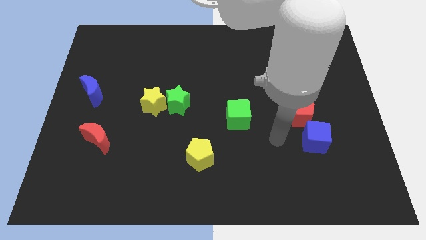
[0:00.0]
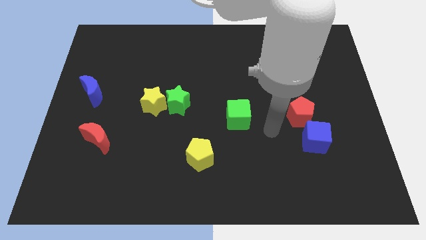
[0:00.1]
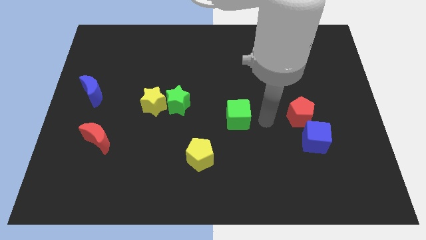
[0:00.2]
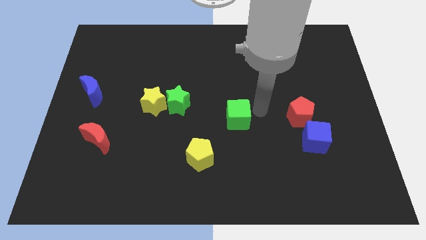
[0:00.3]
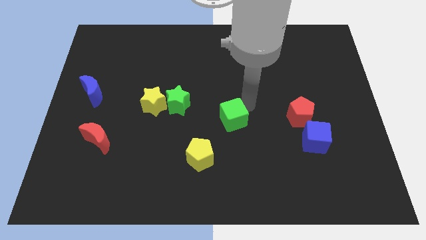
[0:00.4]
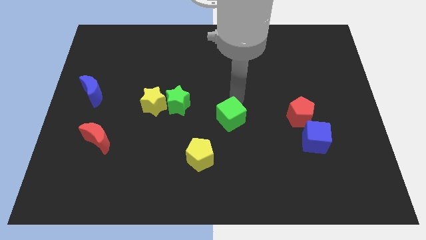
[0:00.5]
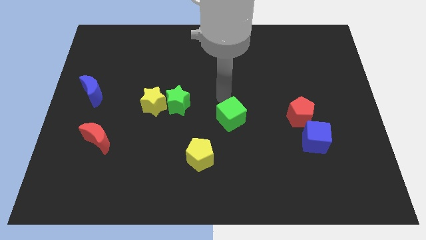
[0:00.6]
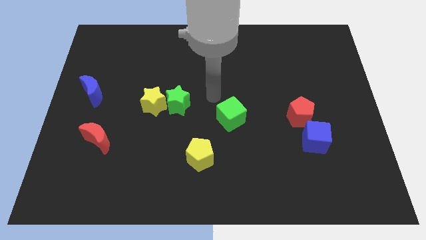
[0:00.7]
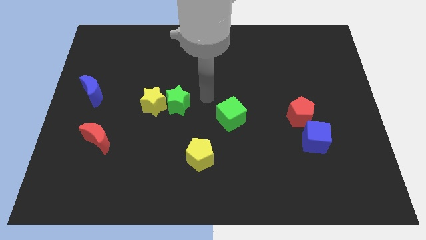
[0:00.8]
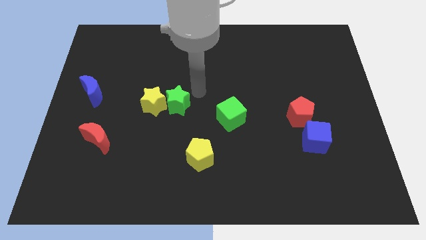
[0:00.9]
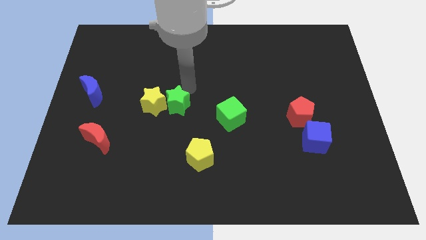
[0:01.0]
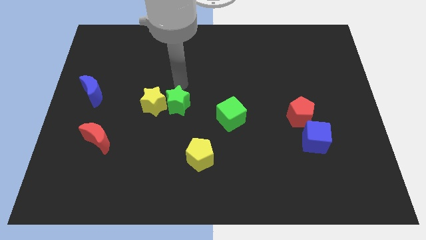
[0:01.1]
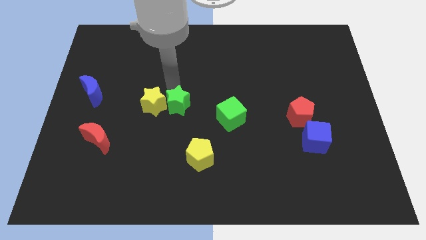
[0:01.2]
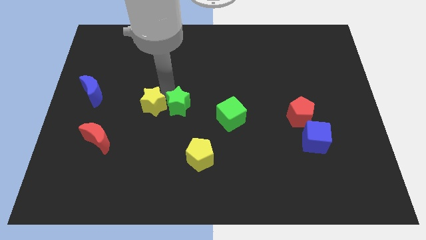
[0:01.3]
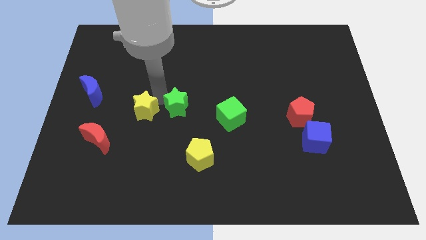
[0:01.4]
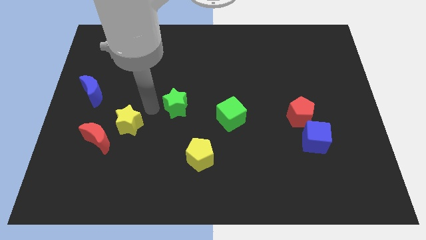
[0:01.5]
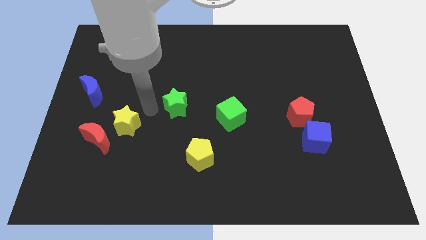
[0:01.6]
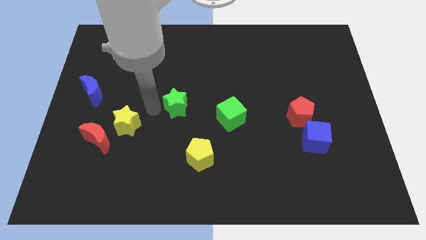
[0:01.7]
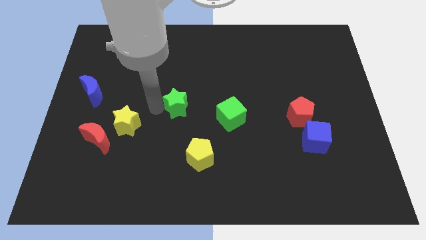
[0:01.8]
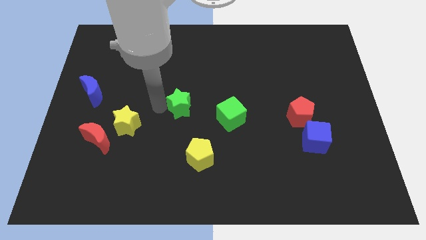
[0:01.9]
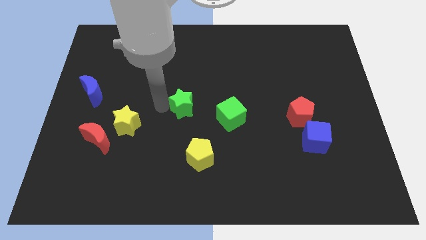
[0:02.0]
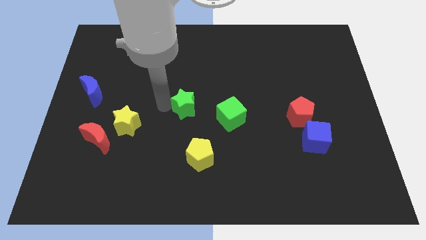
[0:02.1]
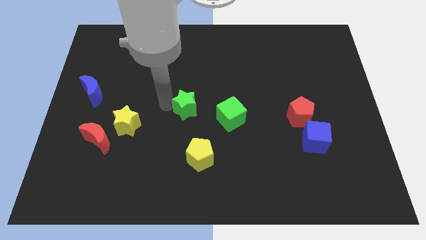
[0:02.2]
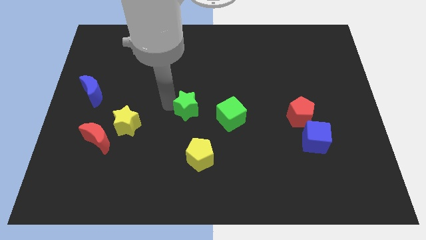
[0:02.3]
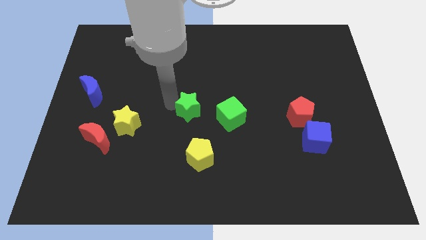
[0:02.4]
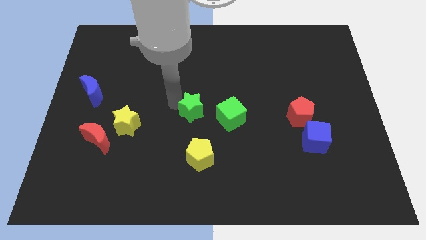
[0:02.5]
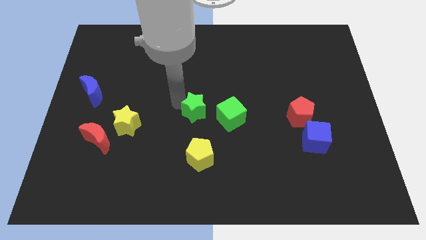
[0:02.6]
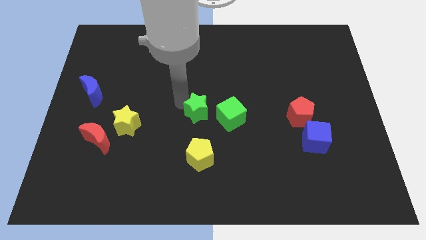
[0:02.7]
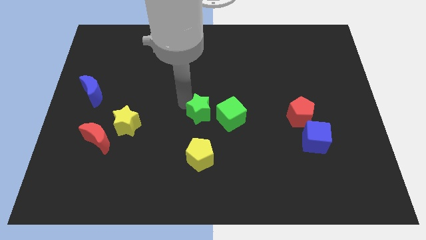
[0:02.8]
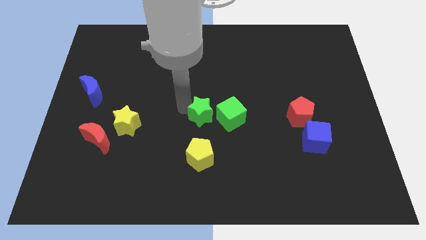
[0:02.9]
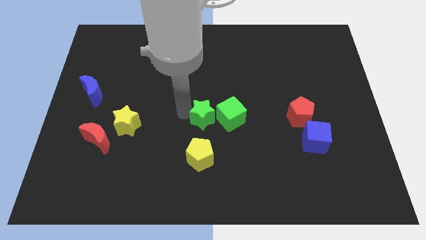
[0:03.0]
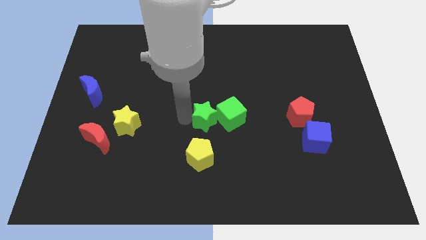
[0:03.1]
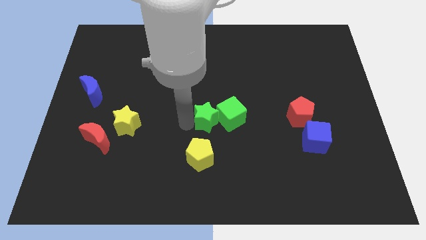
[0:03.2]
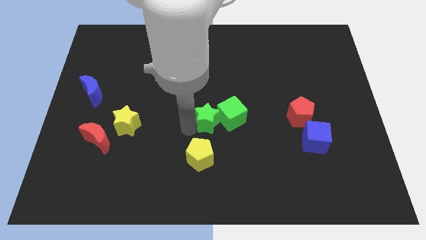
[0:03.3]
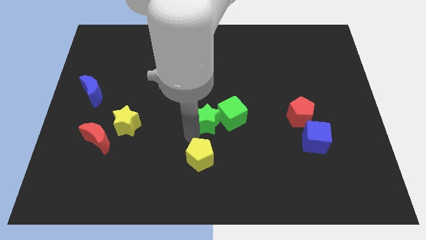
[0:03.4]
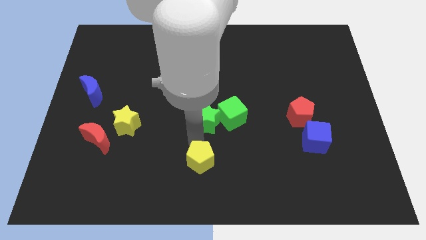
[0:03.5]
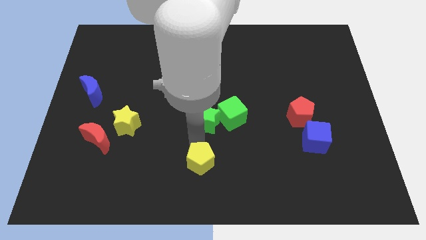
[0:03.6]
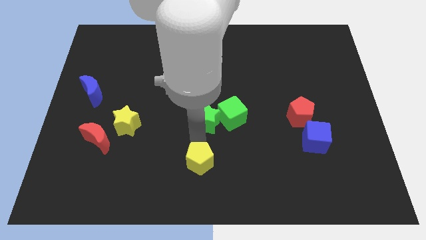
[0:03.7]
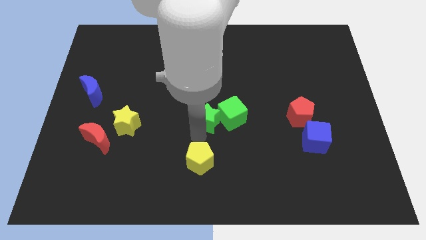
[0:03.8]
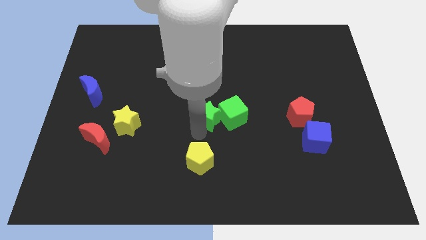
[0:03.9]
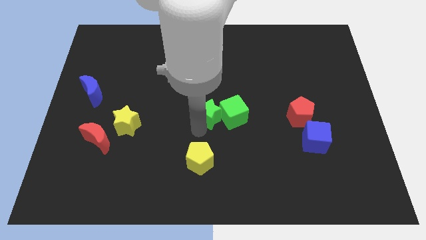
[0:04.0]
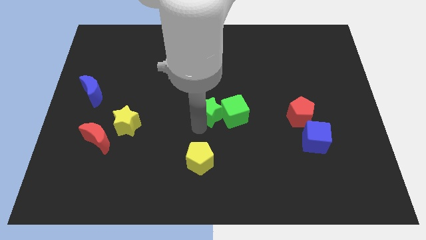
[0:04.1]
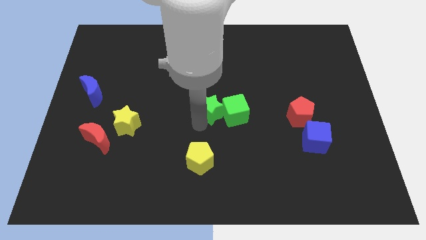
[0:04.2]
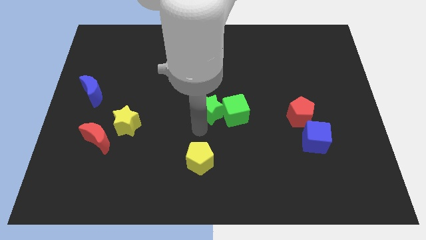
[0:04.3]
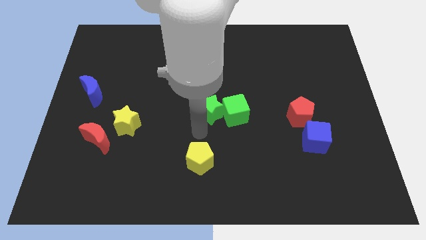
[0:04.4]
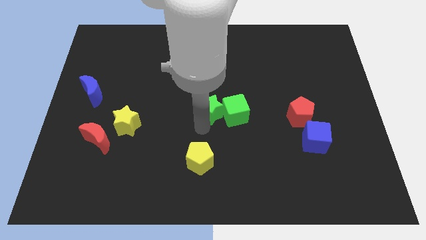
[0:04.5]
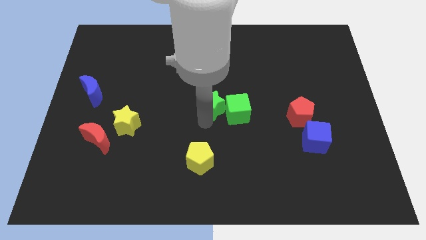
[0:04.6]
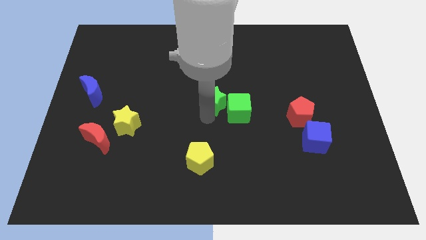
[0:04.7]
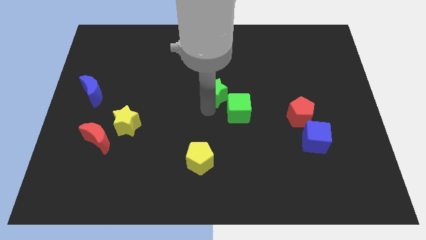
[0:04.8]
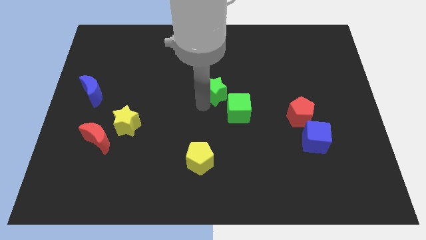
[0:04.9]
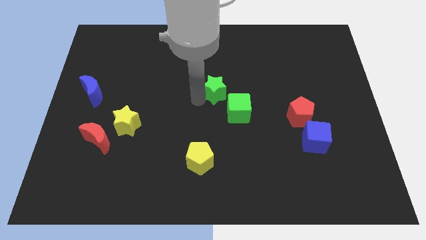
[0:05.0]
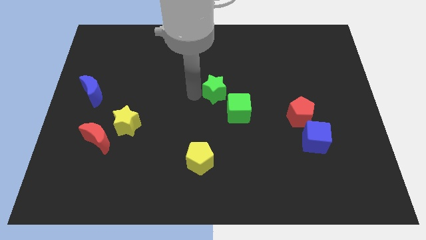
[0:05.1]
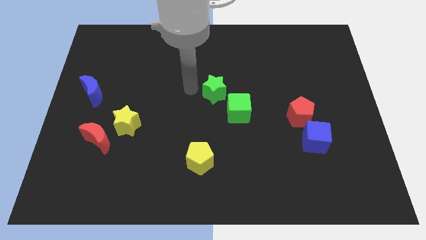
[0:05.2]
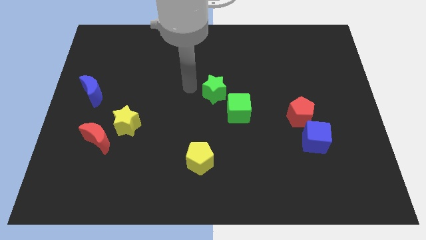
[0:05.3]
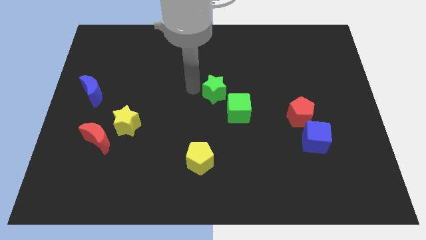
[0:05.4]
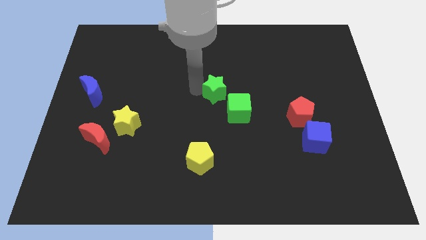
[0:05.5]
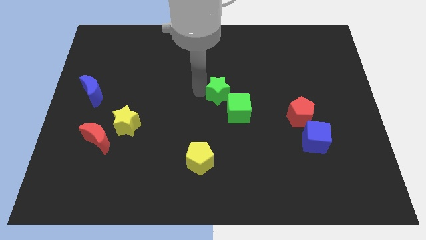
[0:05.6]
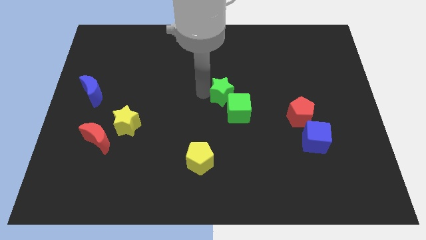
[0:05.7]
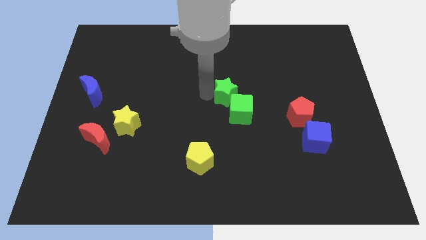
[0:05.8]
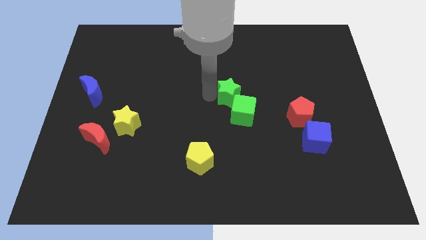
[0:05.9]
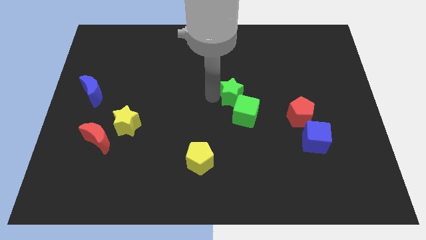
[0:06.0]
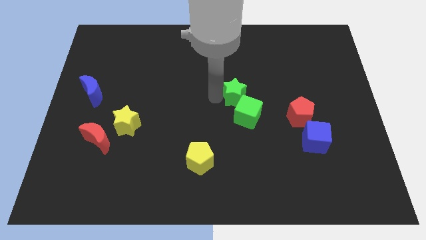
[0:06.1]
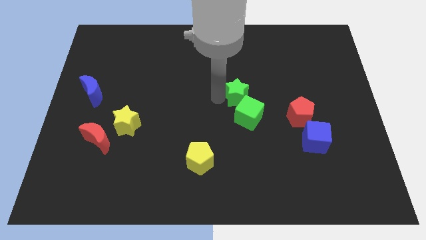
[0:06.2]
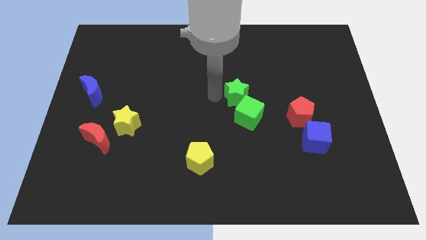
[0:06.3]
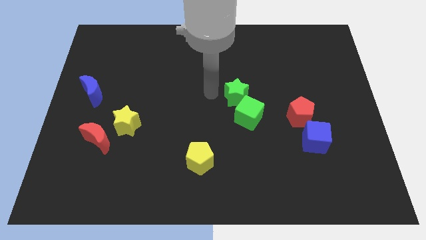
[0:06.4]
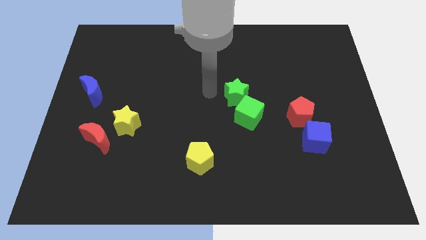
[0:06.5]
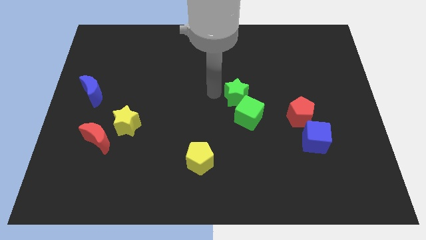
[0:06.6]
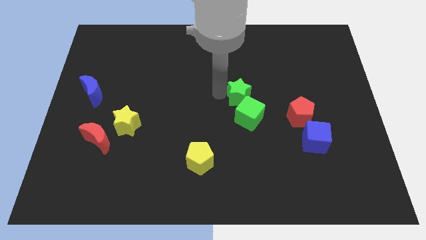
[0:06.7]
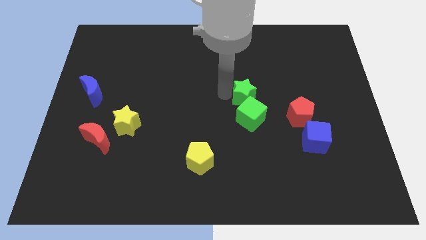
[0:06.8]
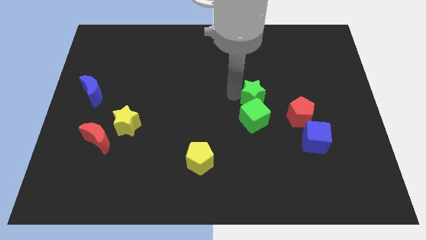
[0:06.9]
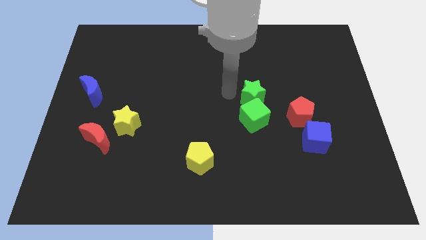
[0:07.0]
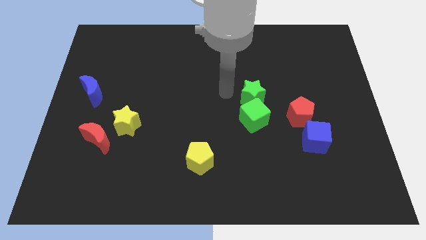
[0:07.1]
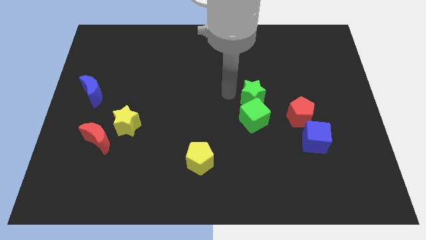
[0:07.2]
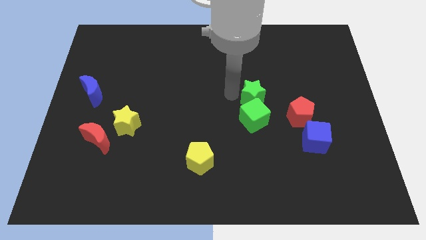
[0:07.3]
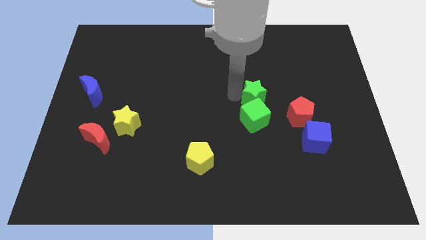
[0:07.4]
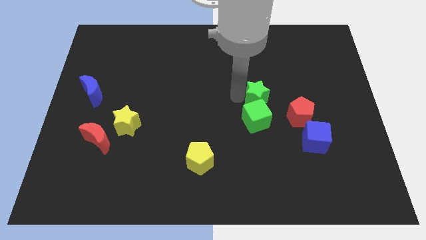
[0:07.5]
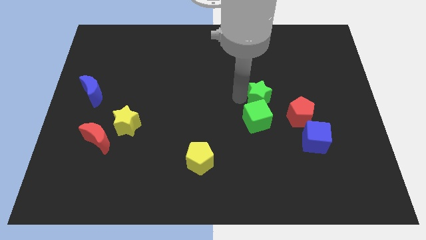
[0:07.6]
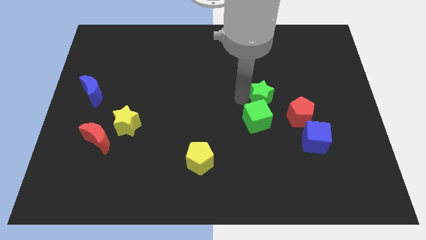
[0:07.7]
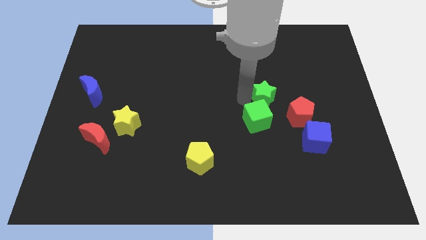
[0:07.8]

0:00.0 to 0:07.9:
slide the green star to the right

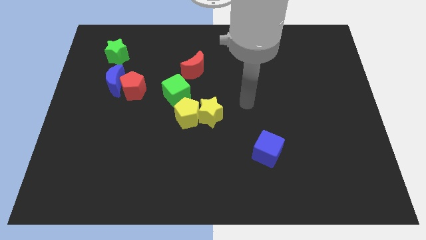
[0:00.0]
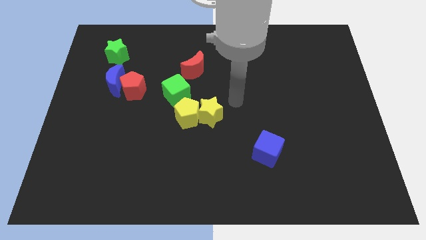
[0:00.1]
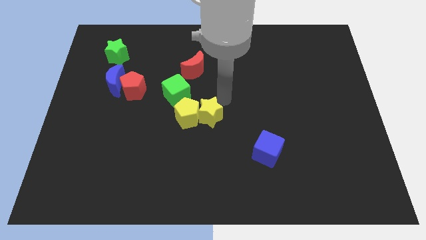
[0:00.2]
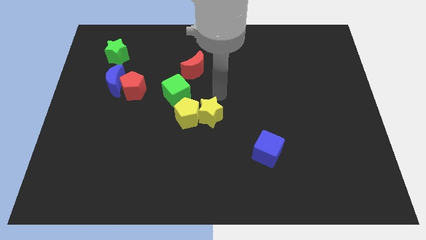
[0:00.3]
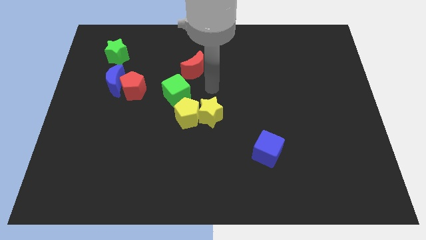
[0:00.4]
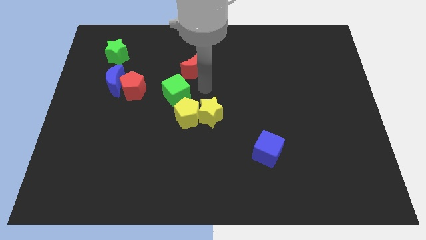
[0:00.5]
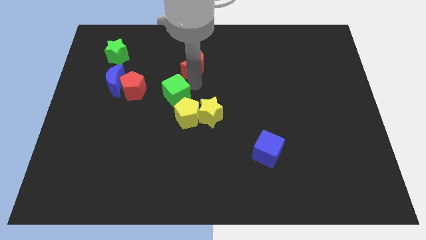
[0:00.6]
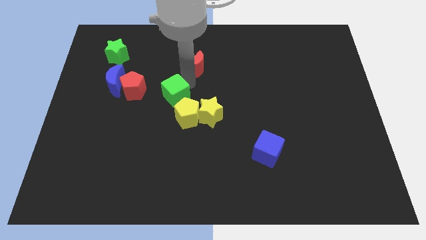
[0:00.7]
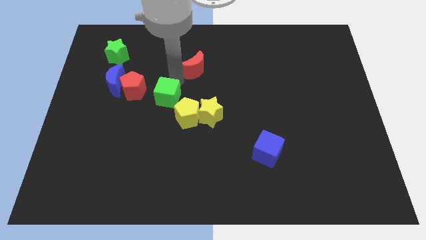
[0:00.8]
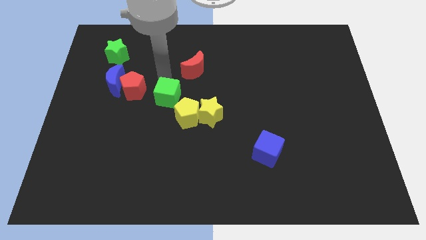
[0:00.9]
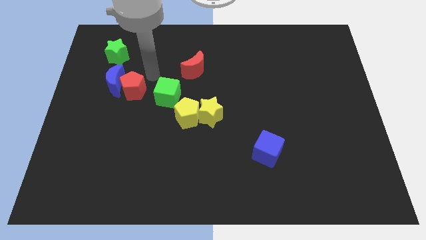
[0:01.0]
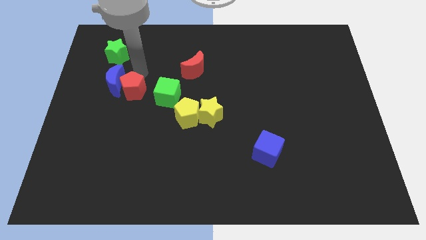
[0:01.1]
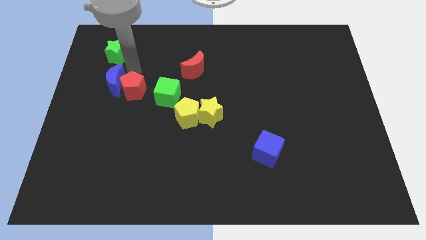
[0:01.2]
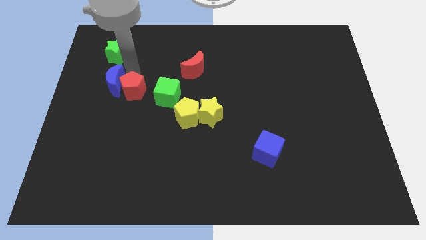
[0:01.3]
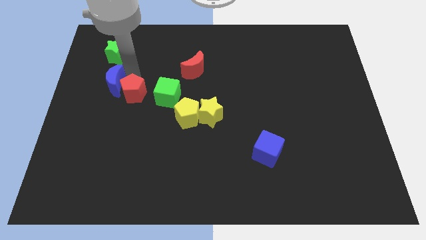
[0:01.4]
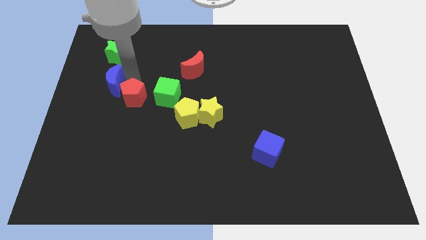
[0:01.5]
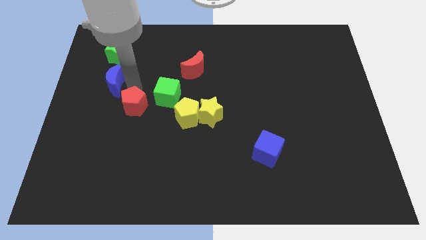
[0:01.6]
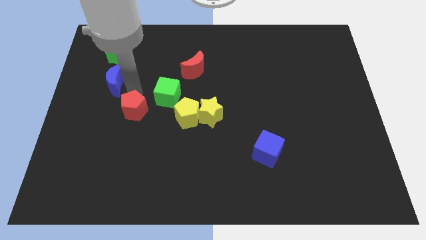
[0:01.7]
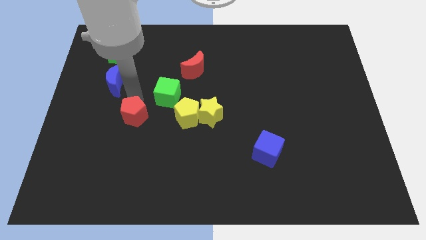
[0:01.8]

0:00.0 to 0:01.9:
move the red pentagon slightly down
